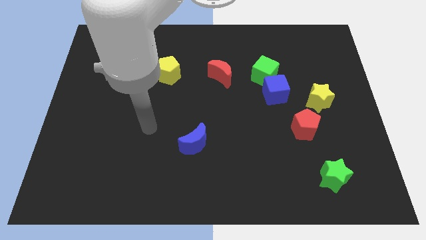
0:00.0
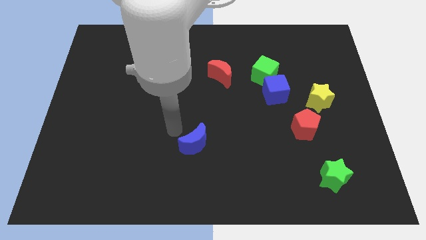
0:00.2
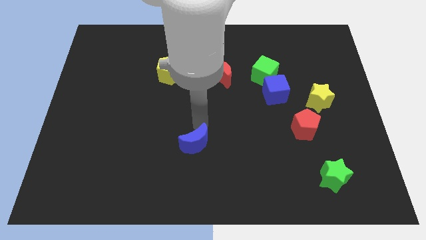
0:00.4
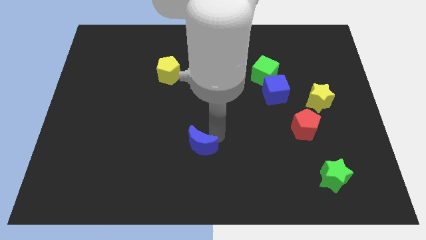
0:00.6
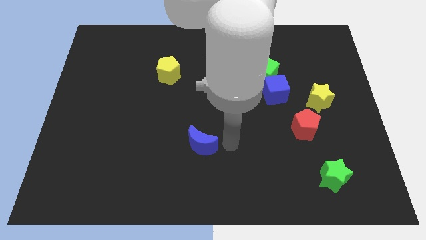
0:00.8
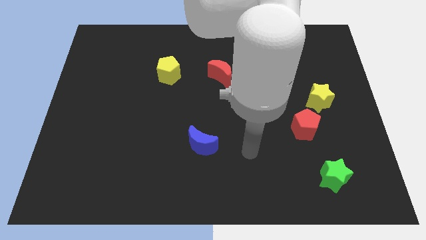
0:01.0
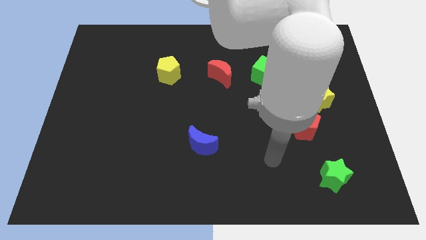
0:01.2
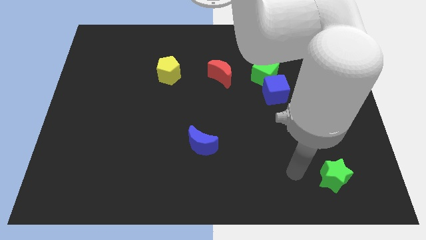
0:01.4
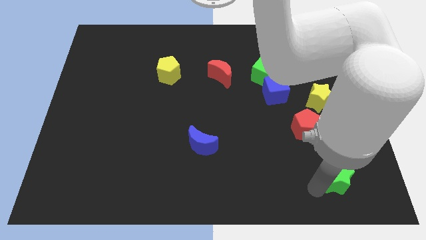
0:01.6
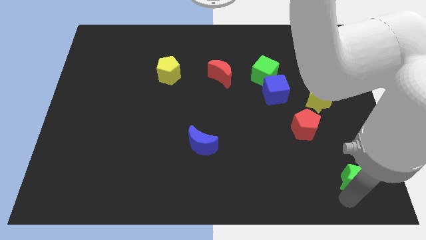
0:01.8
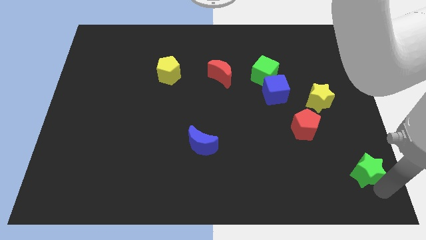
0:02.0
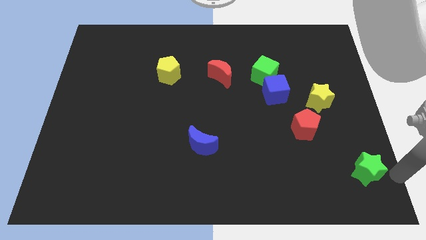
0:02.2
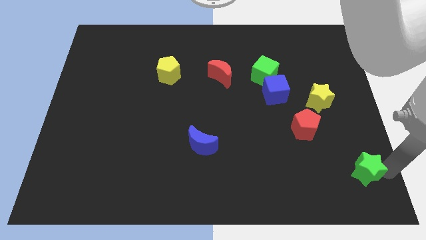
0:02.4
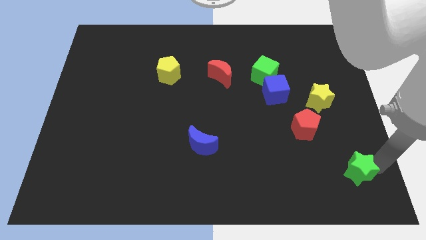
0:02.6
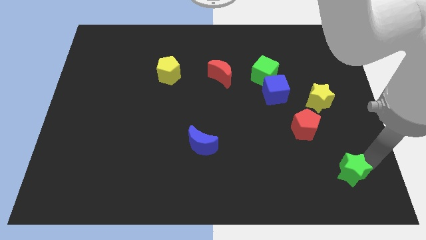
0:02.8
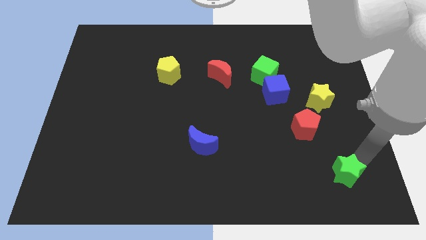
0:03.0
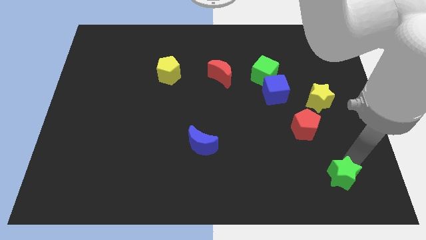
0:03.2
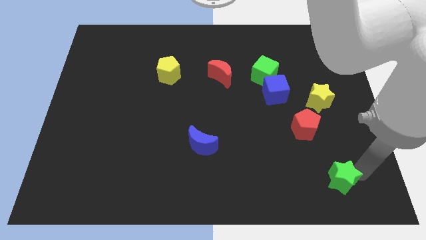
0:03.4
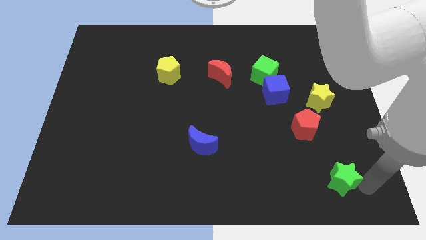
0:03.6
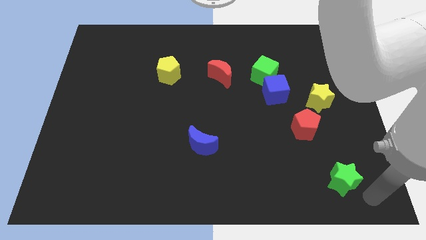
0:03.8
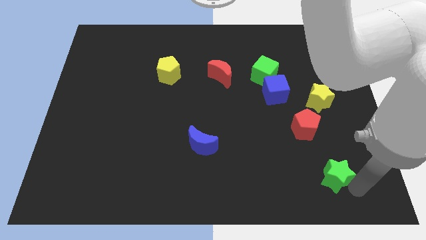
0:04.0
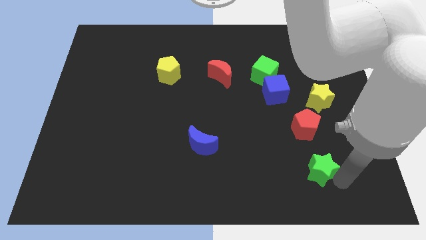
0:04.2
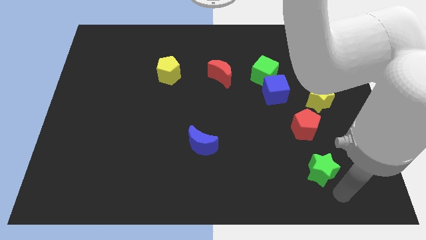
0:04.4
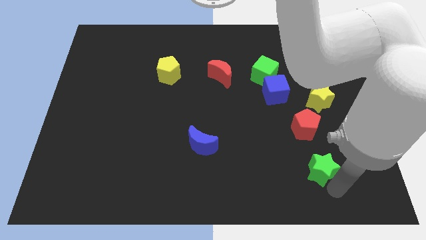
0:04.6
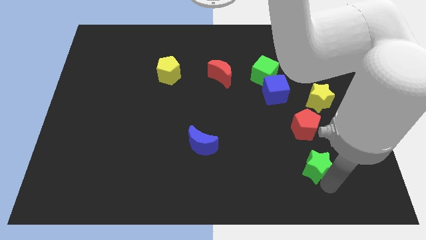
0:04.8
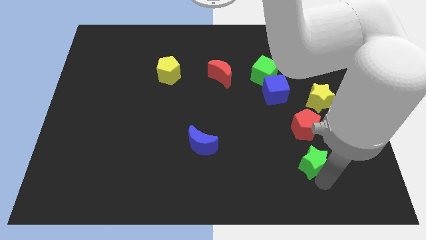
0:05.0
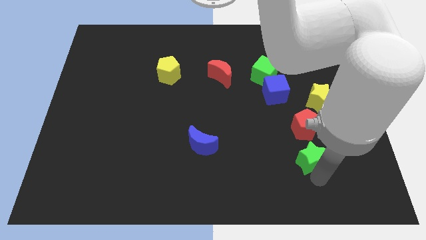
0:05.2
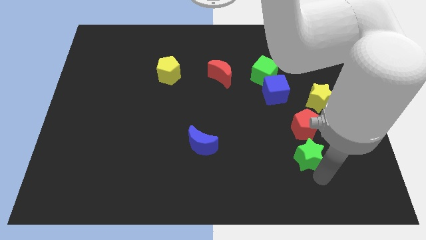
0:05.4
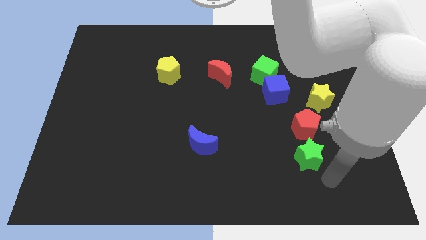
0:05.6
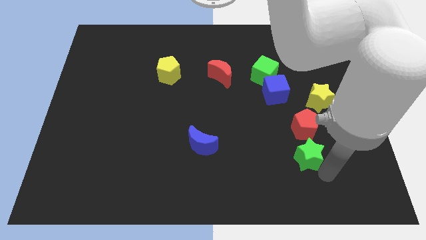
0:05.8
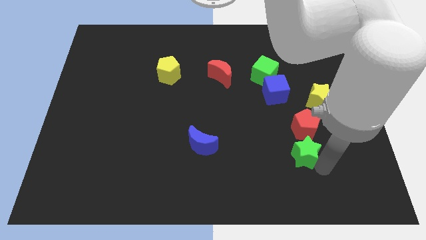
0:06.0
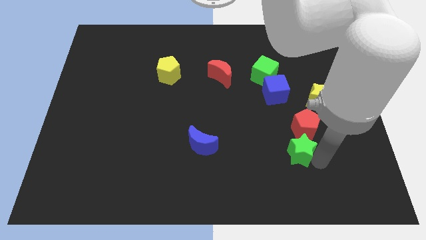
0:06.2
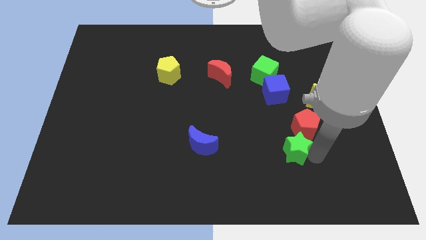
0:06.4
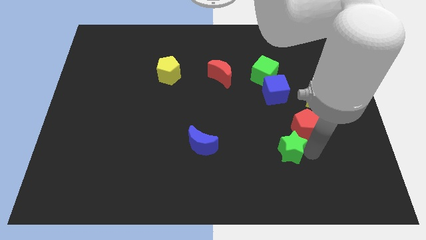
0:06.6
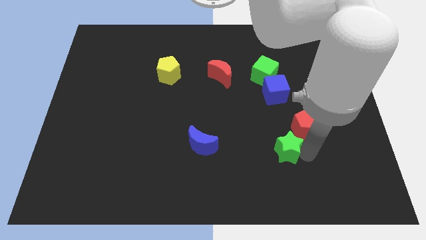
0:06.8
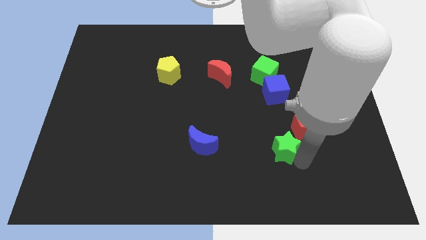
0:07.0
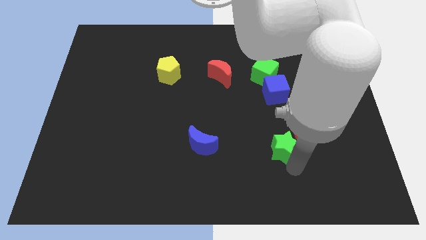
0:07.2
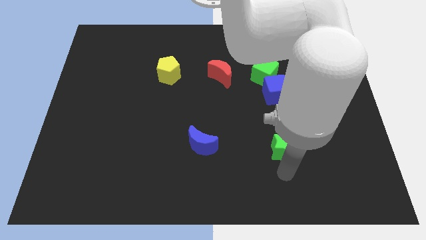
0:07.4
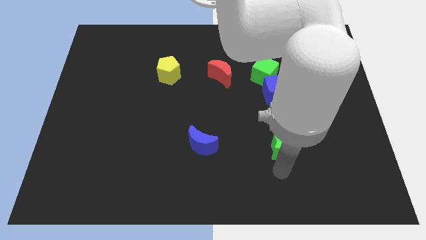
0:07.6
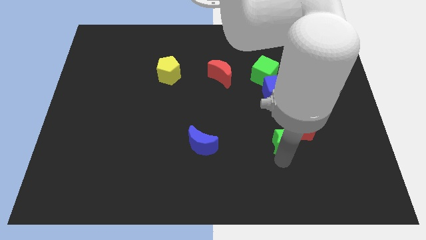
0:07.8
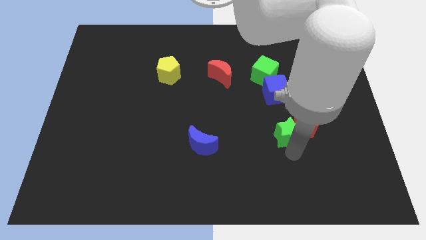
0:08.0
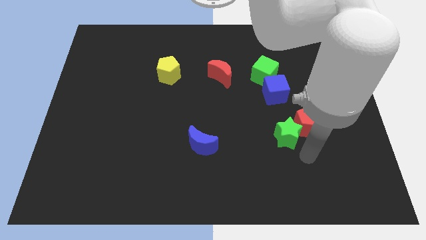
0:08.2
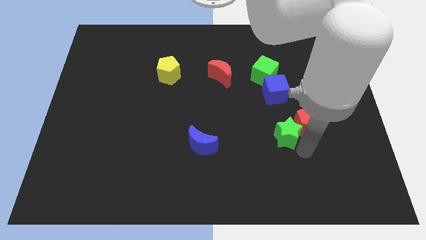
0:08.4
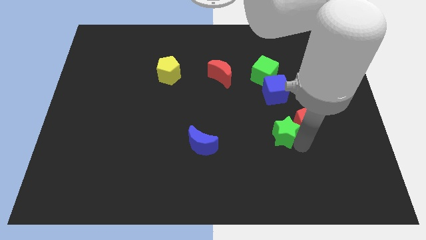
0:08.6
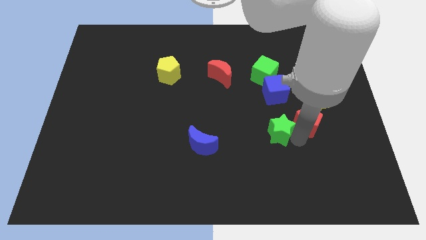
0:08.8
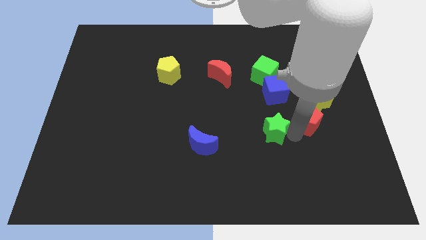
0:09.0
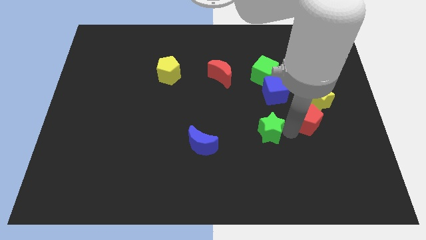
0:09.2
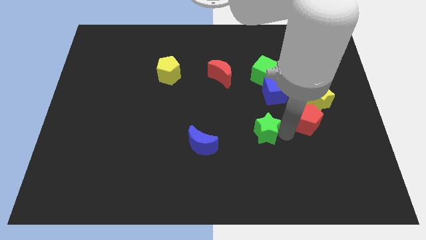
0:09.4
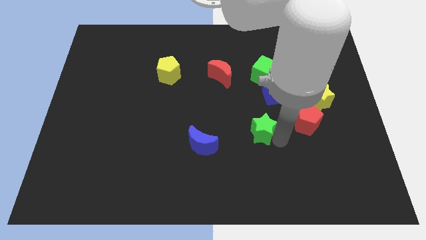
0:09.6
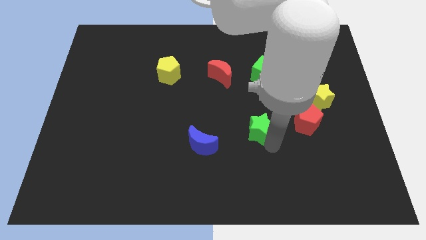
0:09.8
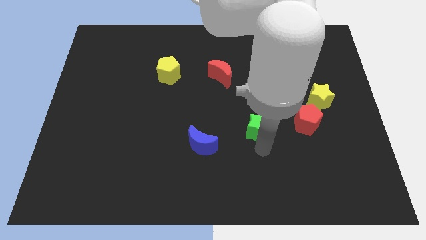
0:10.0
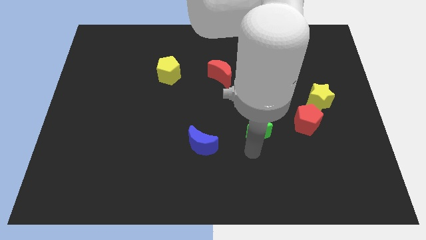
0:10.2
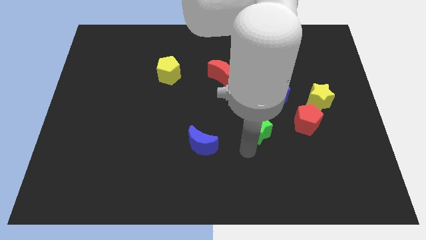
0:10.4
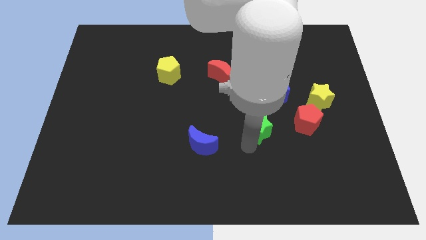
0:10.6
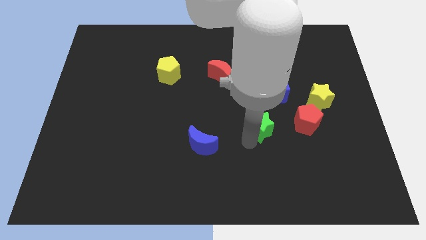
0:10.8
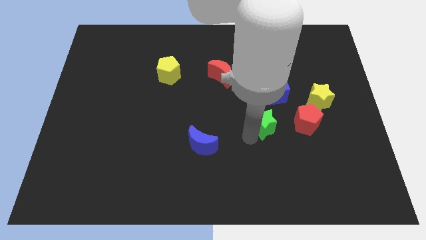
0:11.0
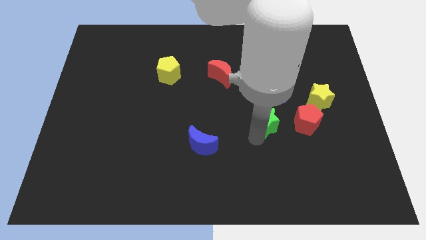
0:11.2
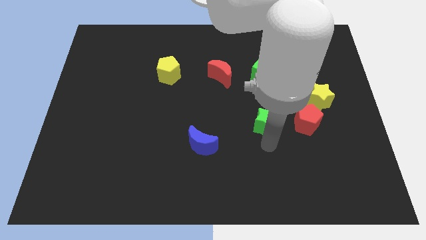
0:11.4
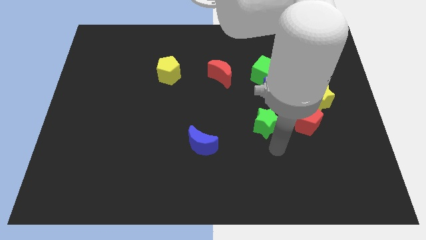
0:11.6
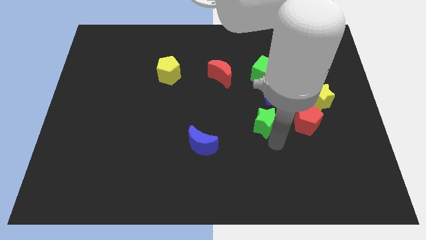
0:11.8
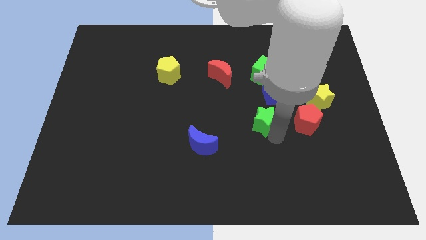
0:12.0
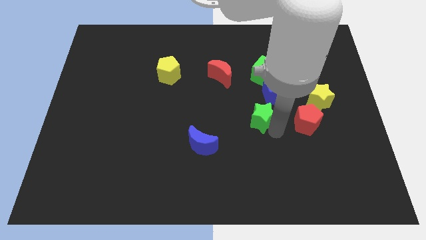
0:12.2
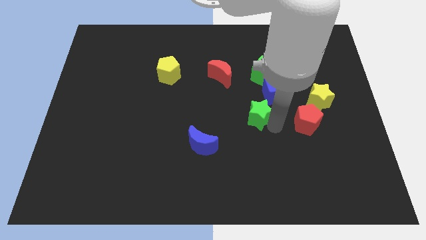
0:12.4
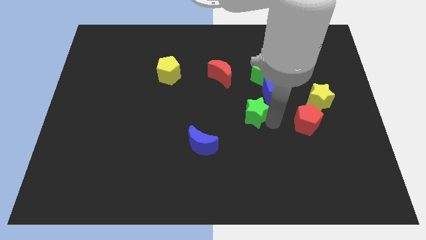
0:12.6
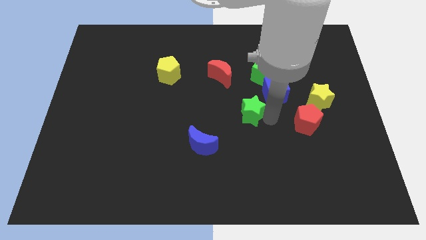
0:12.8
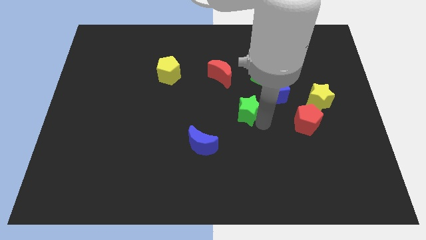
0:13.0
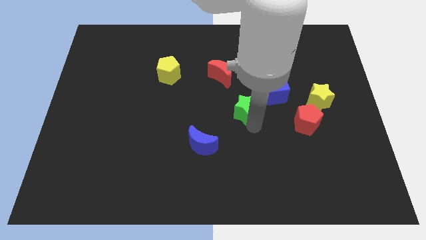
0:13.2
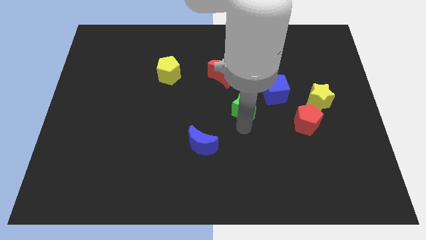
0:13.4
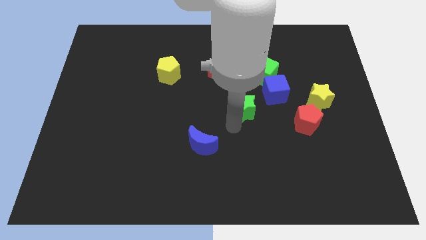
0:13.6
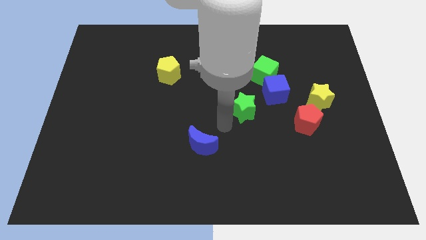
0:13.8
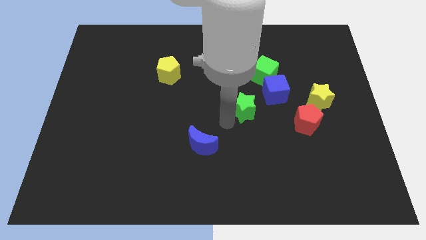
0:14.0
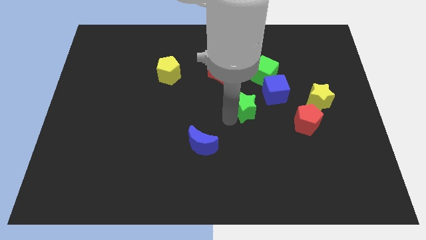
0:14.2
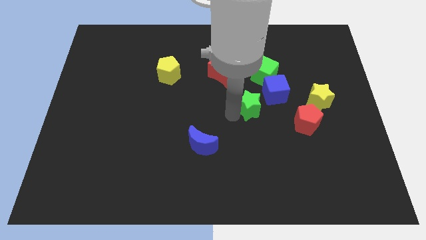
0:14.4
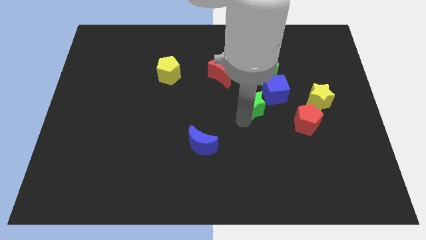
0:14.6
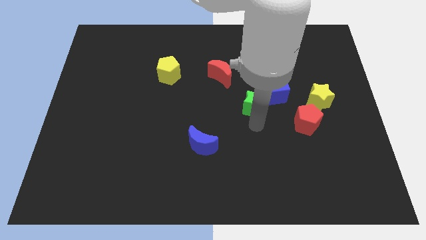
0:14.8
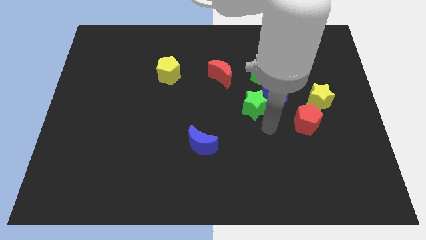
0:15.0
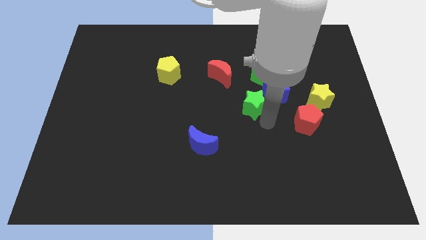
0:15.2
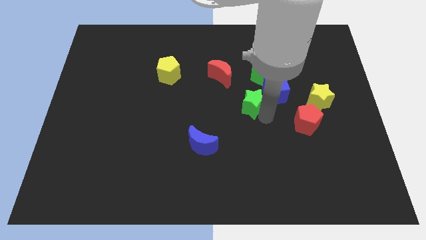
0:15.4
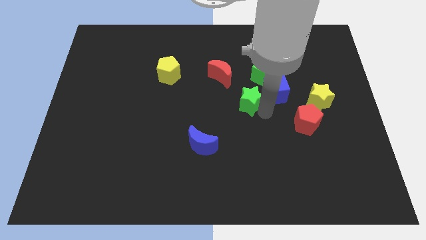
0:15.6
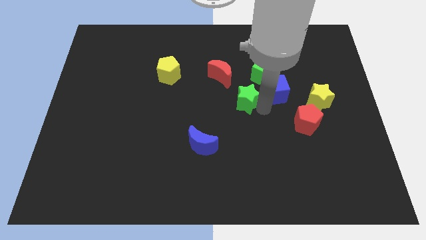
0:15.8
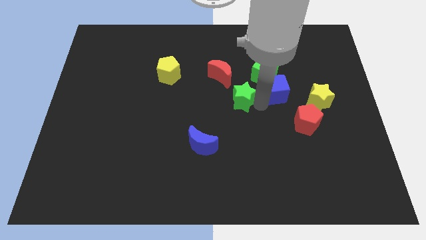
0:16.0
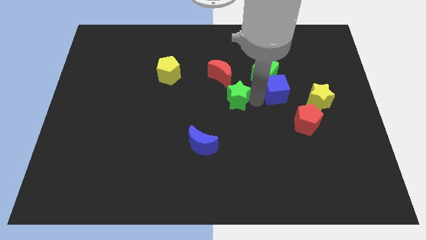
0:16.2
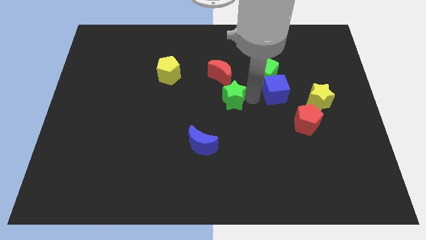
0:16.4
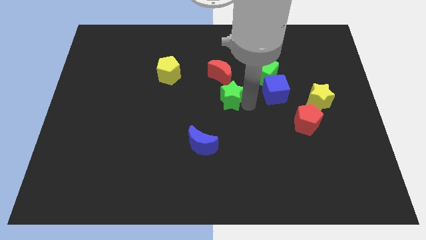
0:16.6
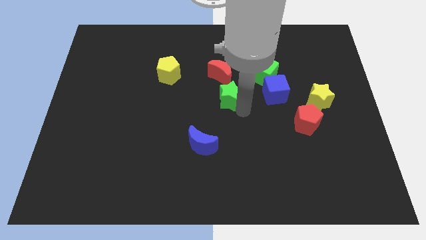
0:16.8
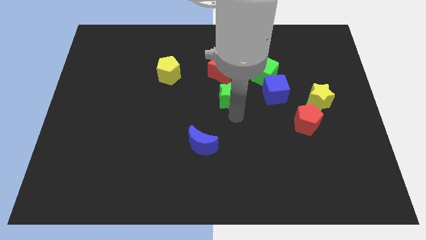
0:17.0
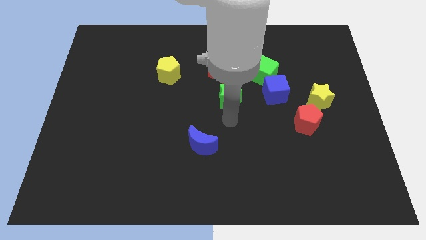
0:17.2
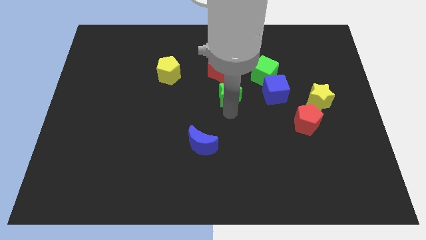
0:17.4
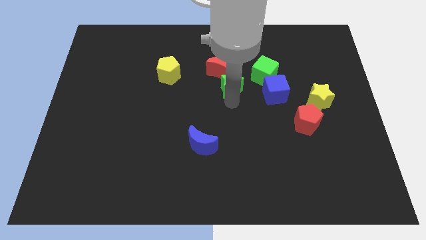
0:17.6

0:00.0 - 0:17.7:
slide the green star to the red moon
